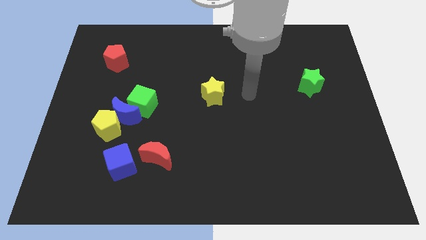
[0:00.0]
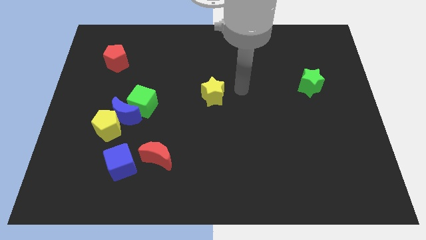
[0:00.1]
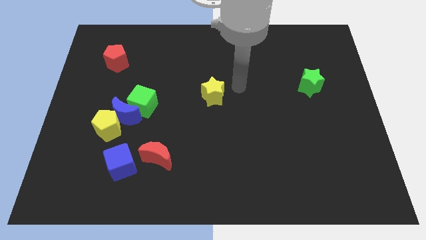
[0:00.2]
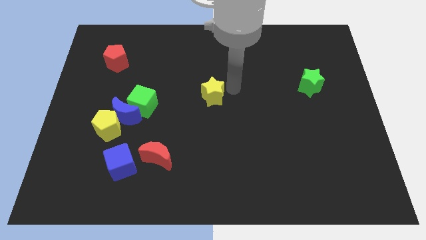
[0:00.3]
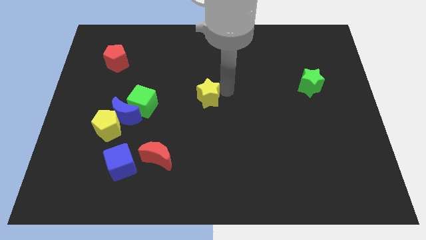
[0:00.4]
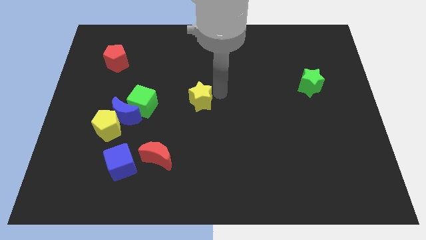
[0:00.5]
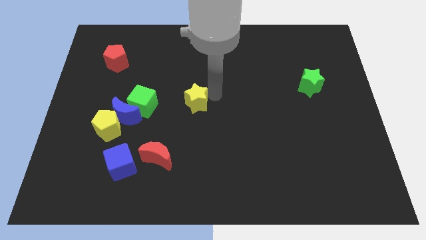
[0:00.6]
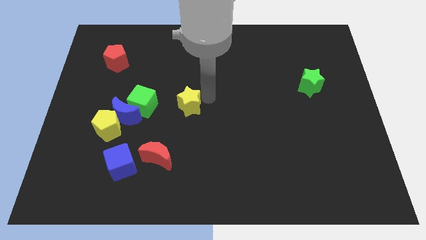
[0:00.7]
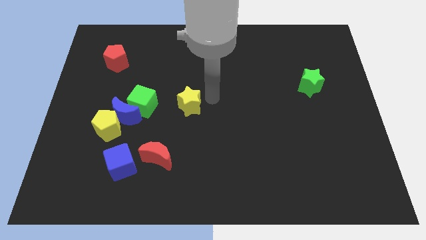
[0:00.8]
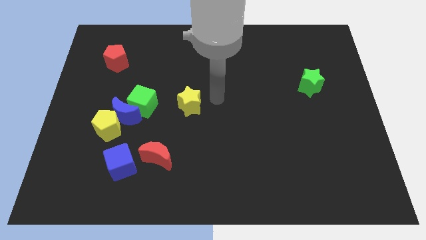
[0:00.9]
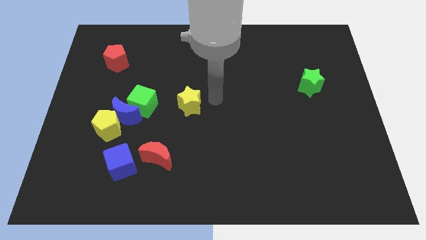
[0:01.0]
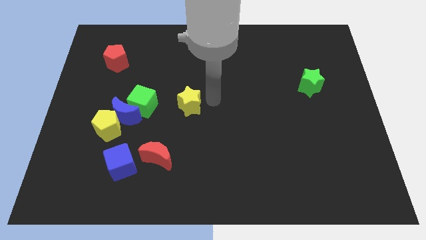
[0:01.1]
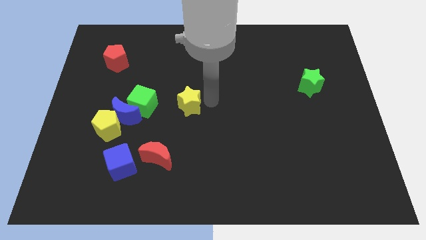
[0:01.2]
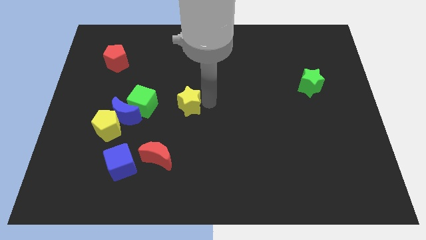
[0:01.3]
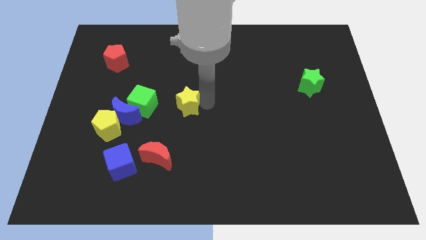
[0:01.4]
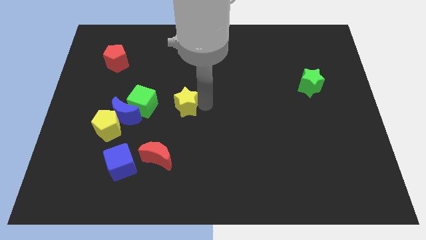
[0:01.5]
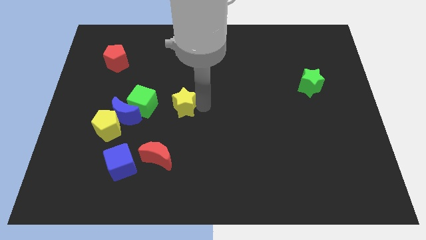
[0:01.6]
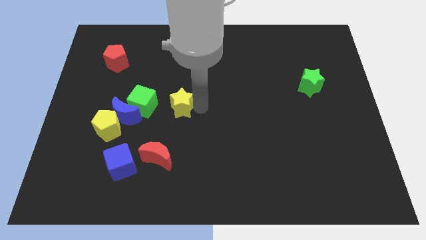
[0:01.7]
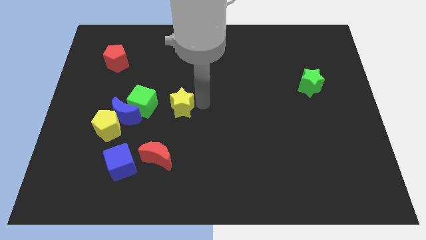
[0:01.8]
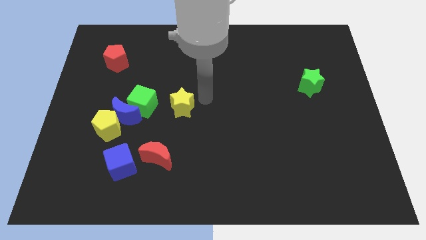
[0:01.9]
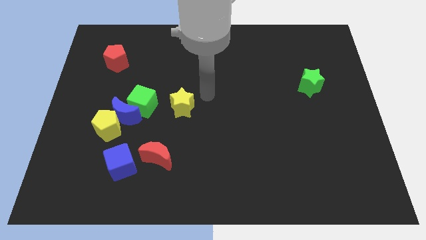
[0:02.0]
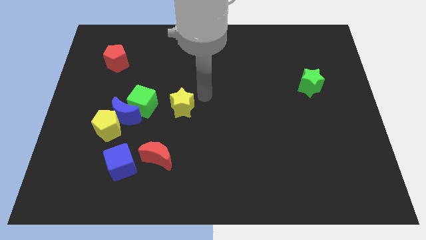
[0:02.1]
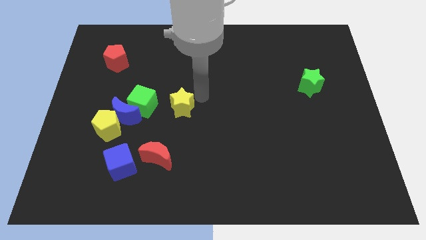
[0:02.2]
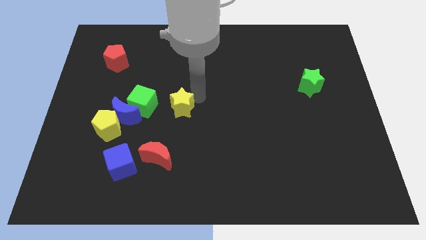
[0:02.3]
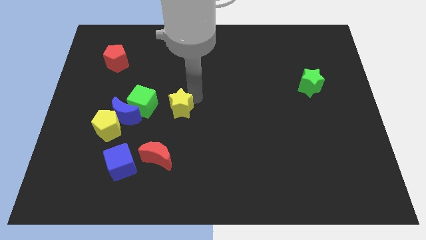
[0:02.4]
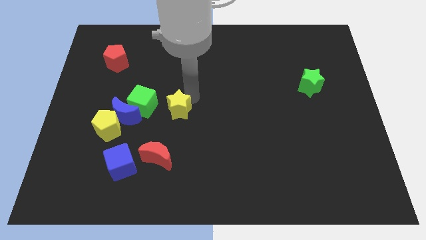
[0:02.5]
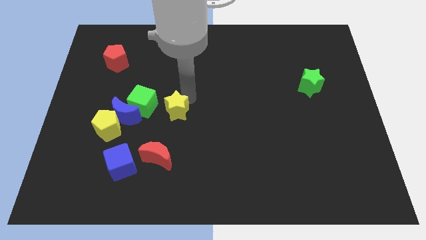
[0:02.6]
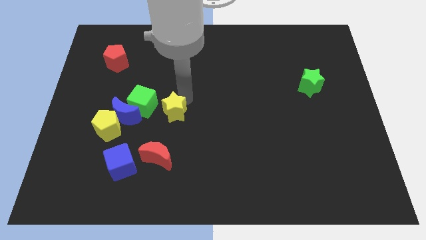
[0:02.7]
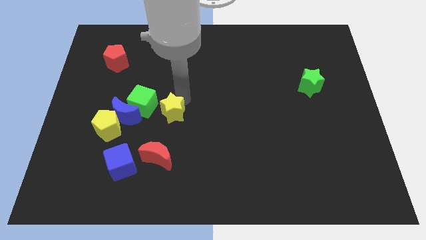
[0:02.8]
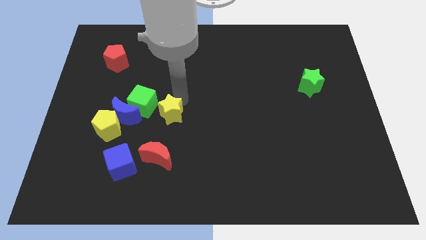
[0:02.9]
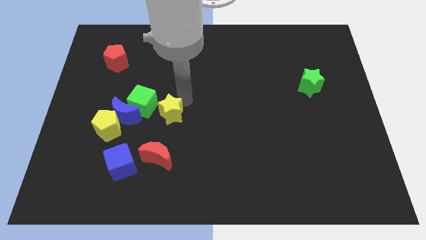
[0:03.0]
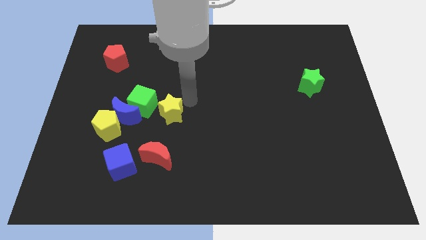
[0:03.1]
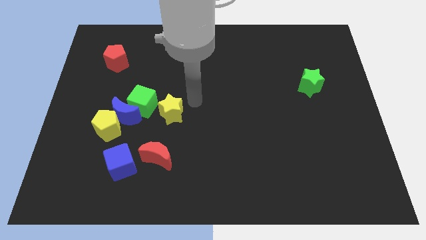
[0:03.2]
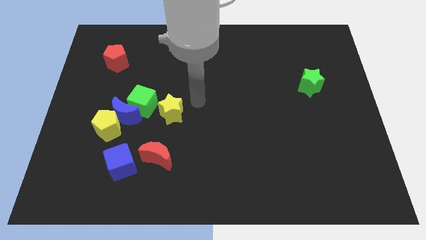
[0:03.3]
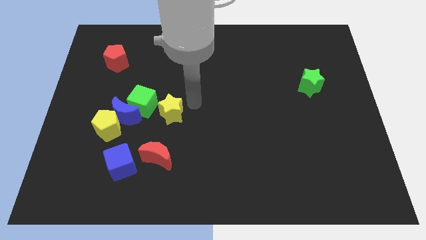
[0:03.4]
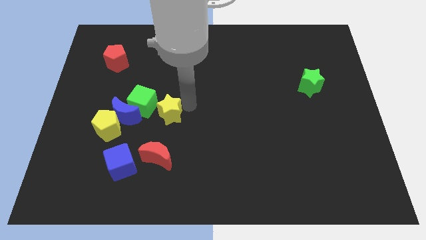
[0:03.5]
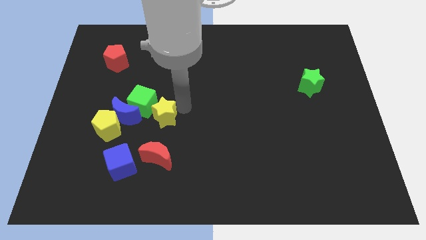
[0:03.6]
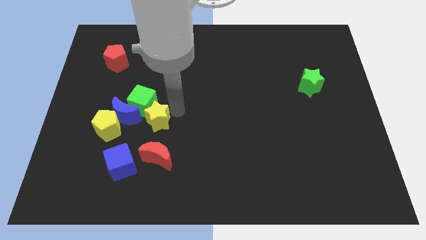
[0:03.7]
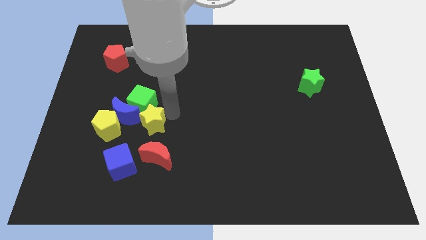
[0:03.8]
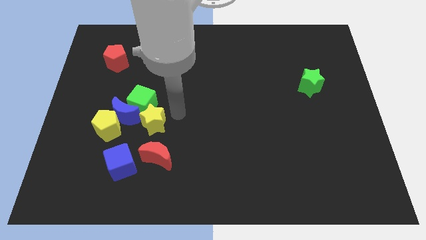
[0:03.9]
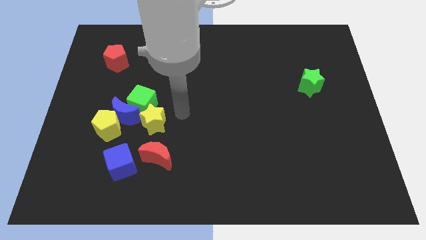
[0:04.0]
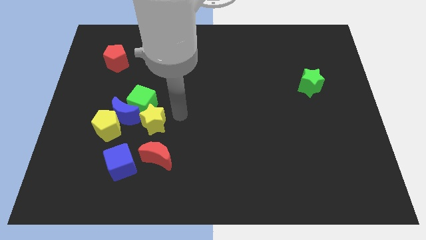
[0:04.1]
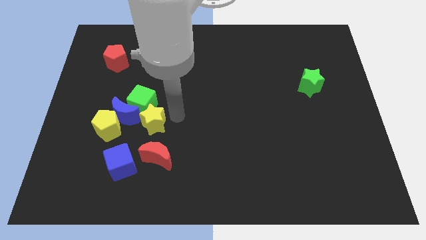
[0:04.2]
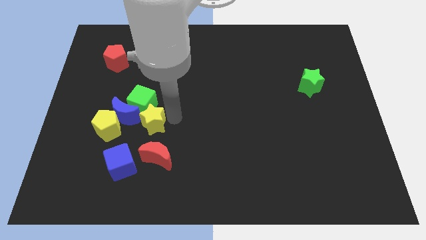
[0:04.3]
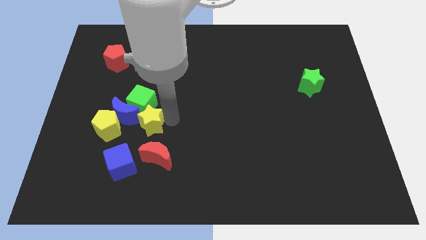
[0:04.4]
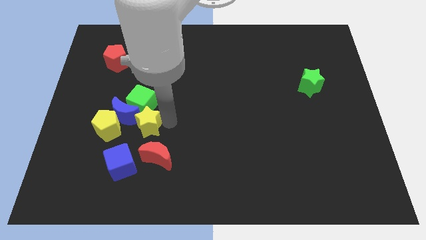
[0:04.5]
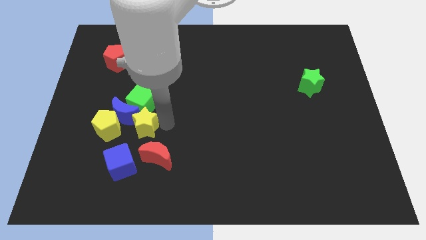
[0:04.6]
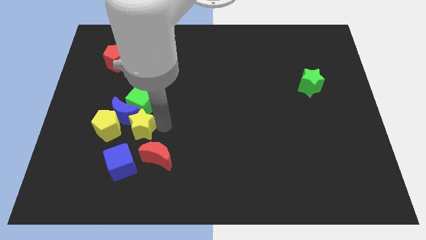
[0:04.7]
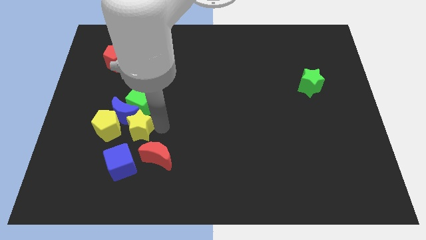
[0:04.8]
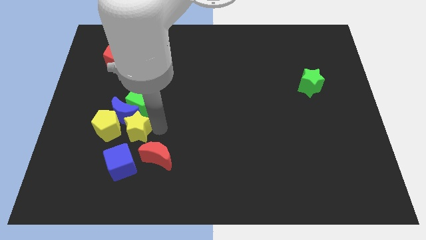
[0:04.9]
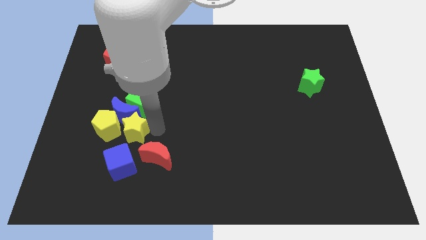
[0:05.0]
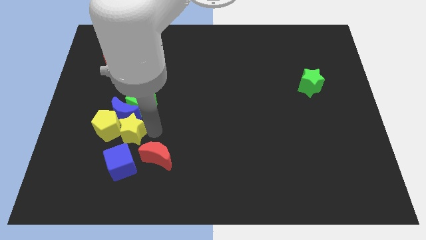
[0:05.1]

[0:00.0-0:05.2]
move the yellow star close to the yellow pentagon

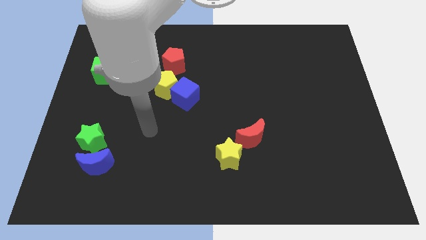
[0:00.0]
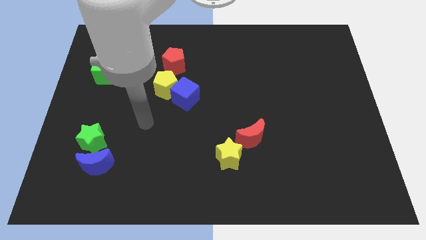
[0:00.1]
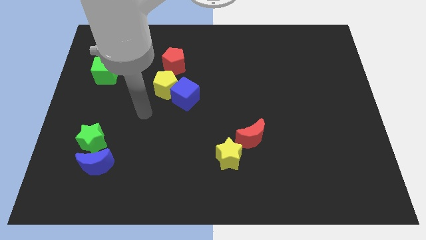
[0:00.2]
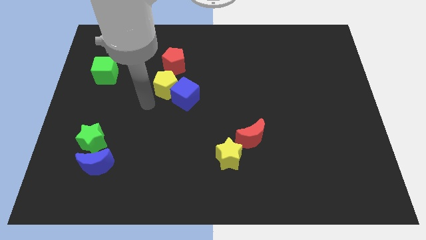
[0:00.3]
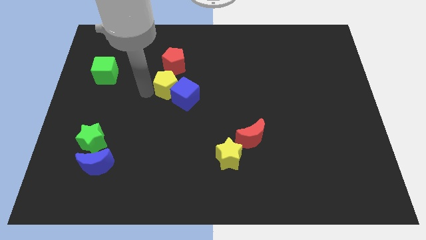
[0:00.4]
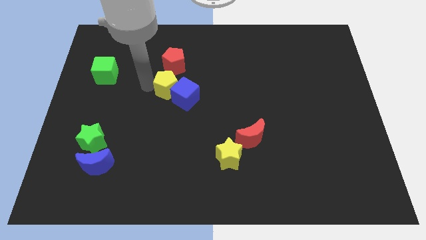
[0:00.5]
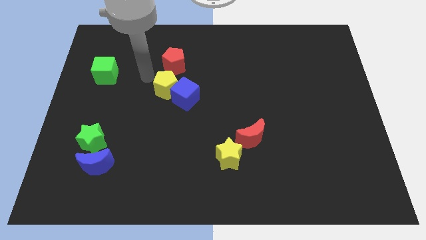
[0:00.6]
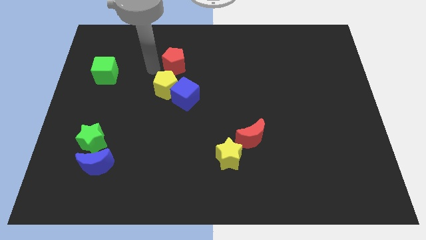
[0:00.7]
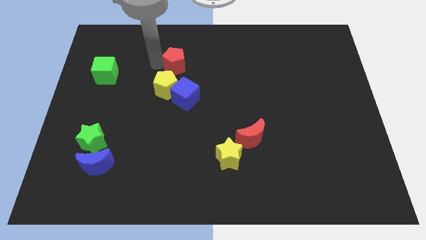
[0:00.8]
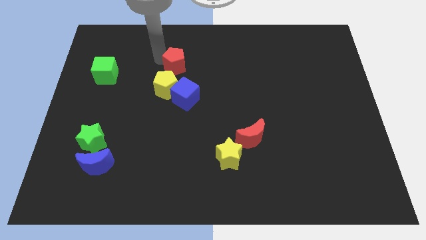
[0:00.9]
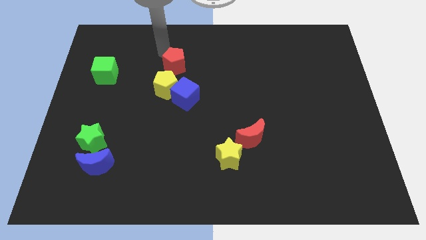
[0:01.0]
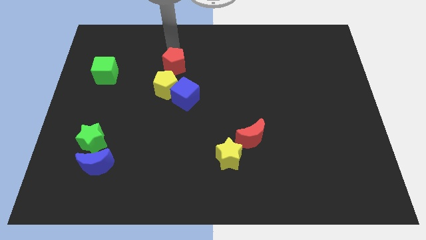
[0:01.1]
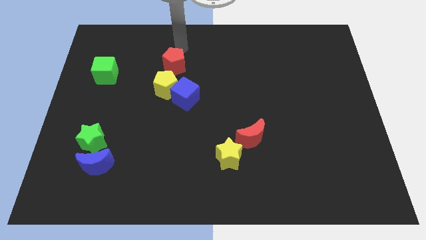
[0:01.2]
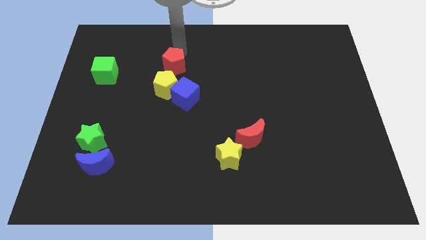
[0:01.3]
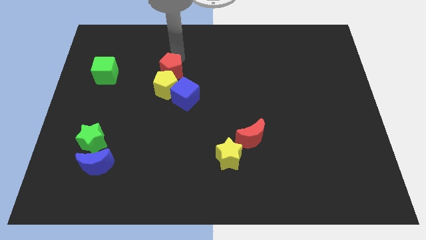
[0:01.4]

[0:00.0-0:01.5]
put the red pentagon towards the yellow pentagon

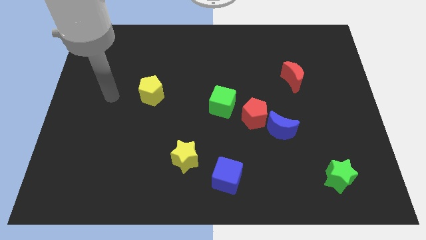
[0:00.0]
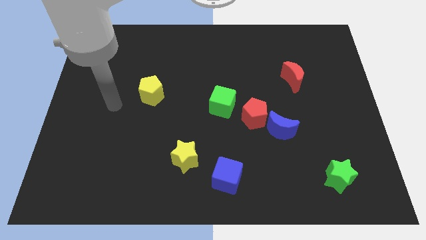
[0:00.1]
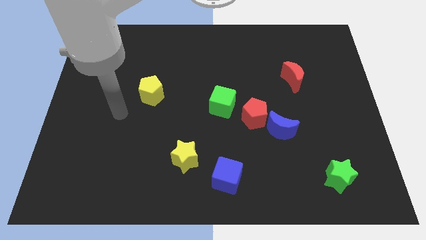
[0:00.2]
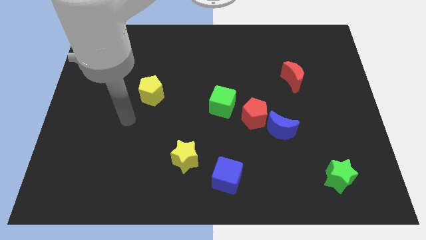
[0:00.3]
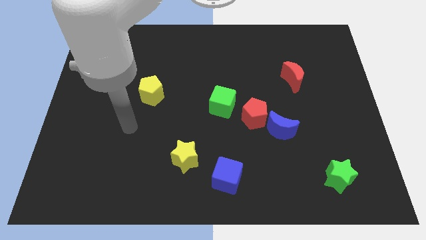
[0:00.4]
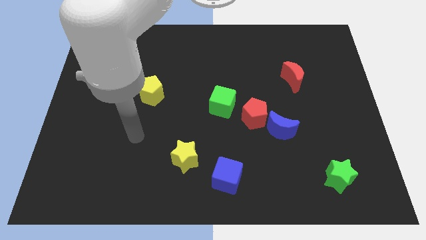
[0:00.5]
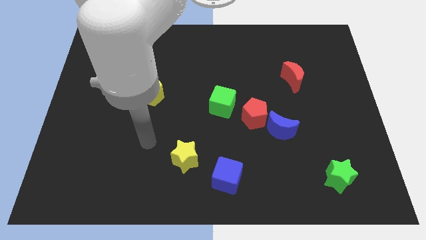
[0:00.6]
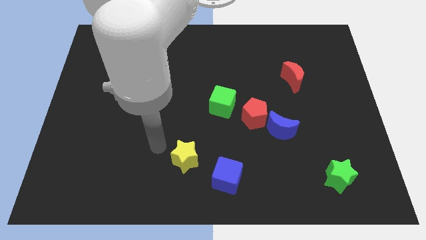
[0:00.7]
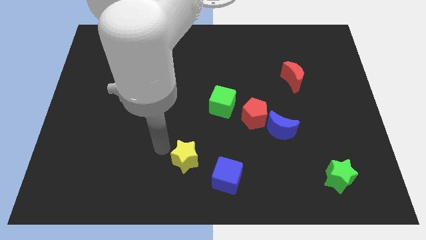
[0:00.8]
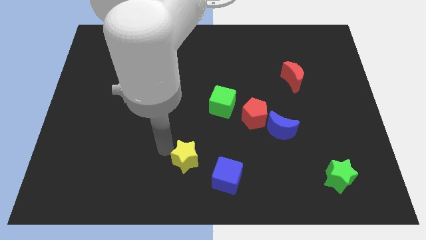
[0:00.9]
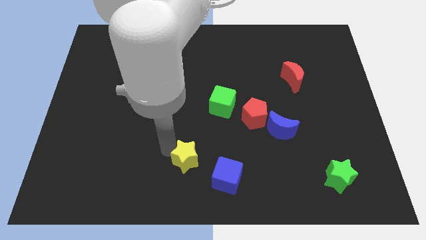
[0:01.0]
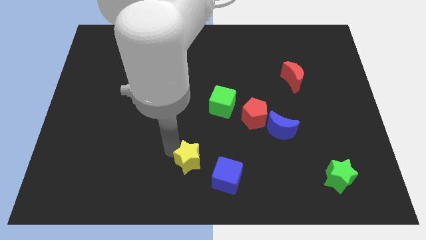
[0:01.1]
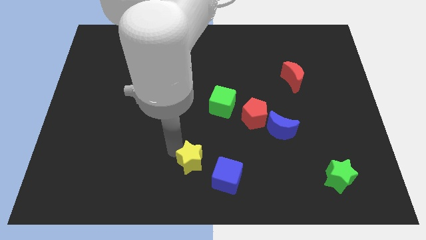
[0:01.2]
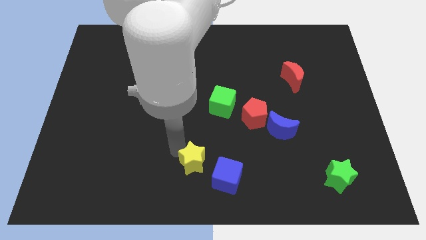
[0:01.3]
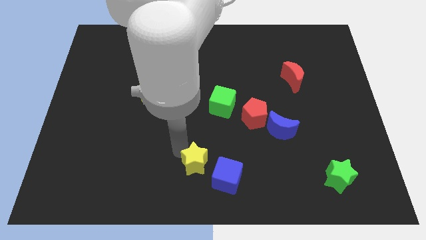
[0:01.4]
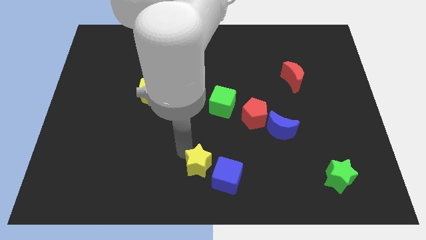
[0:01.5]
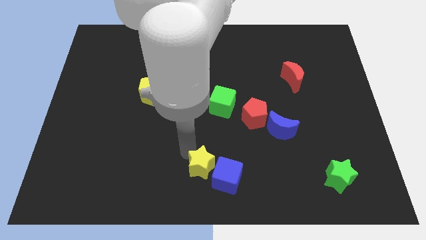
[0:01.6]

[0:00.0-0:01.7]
move the yellow star to the blue cube
